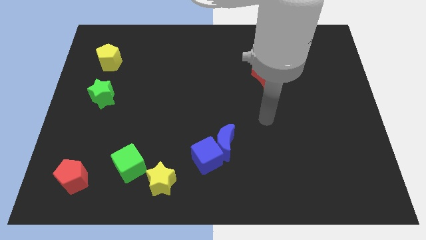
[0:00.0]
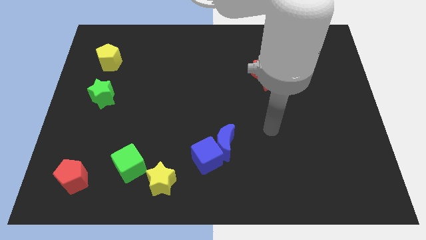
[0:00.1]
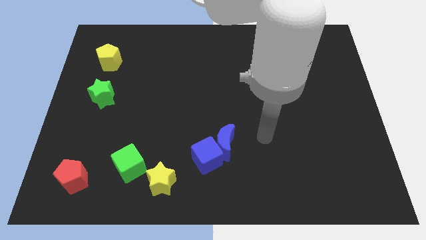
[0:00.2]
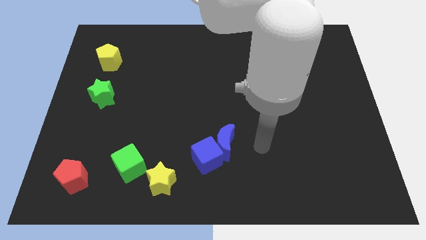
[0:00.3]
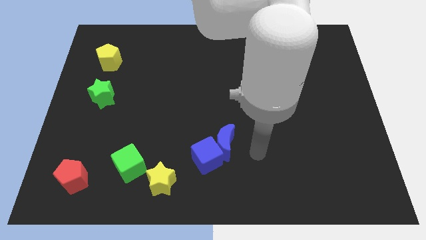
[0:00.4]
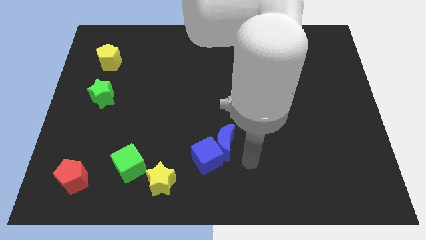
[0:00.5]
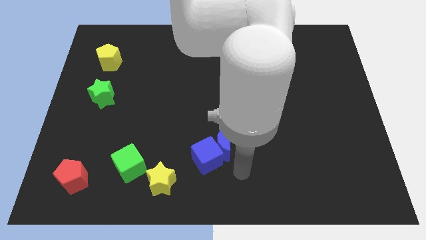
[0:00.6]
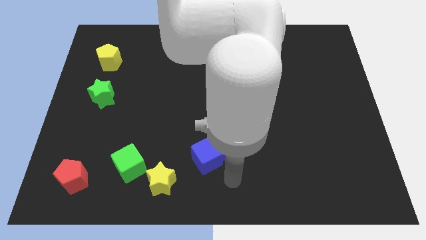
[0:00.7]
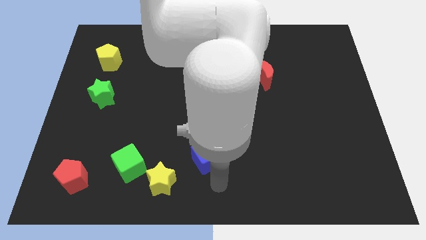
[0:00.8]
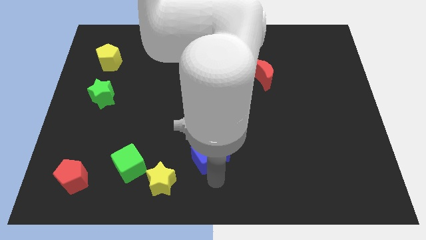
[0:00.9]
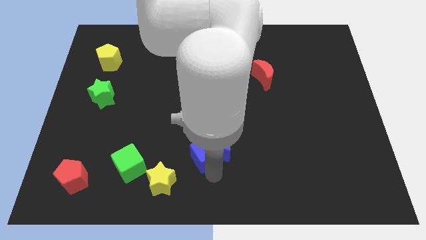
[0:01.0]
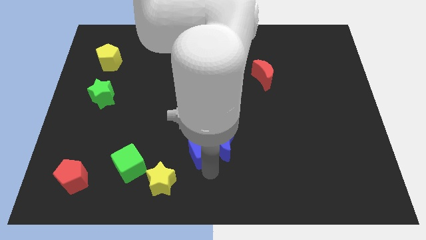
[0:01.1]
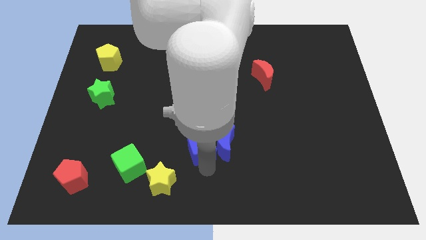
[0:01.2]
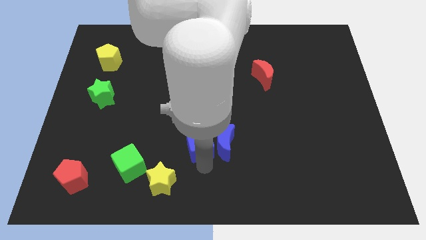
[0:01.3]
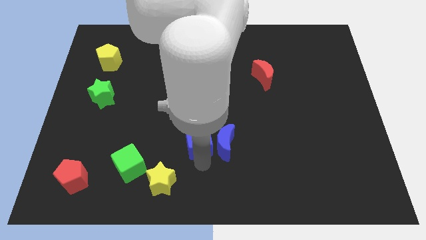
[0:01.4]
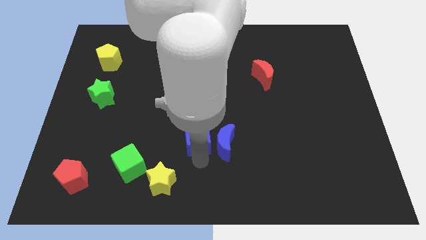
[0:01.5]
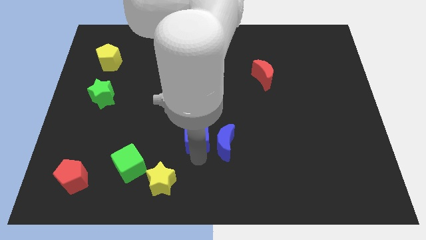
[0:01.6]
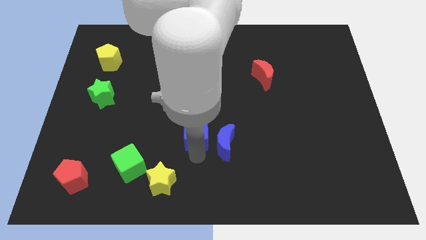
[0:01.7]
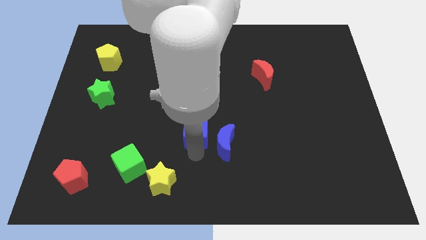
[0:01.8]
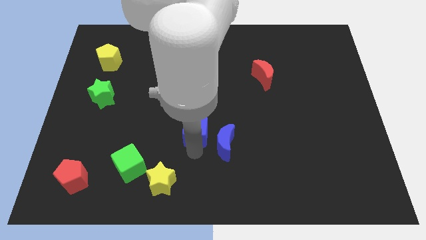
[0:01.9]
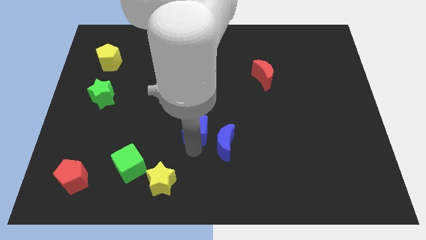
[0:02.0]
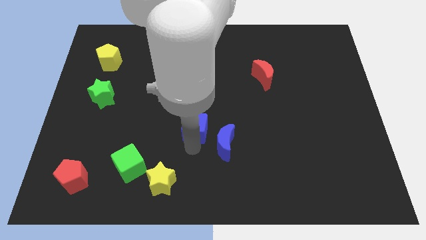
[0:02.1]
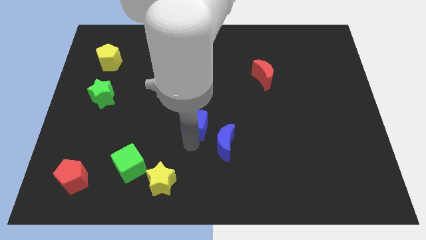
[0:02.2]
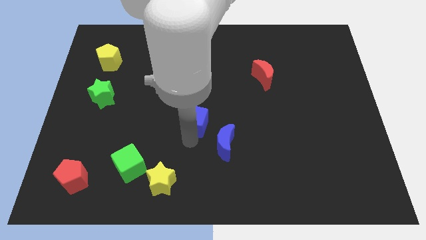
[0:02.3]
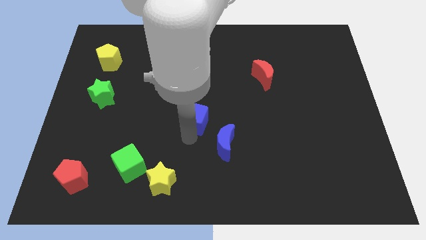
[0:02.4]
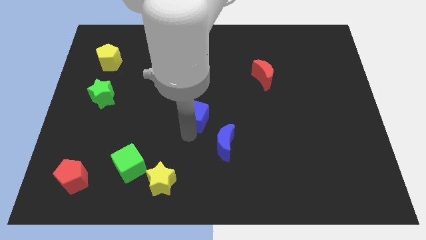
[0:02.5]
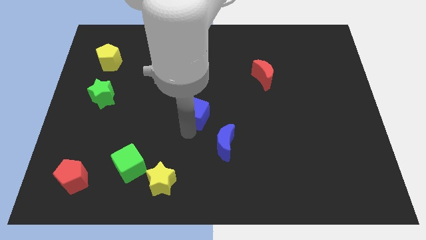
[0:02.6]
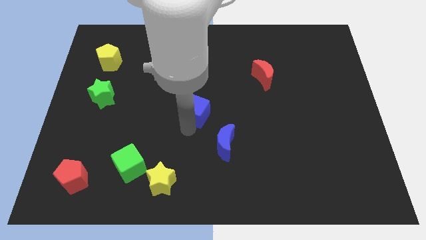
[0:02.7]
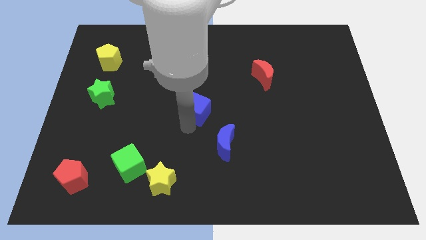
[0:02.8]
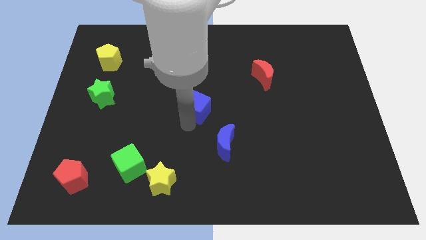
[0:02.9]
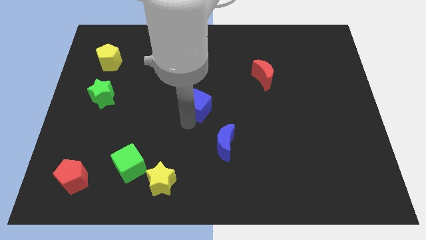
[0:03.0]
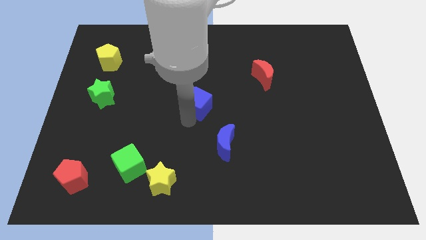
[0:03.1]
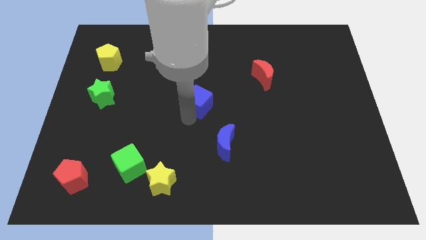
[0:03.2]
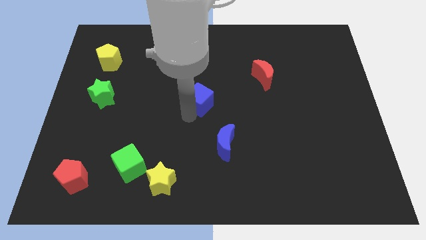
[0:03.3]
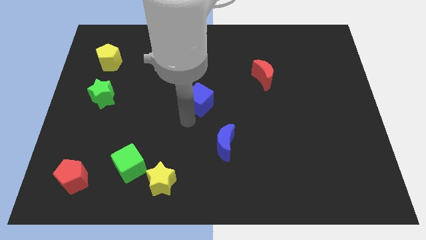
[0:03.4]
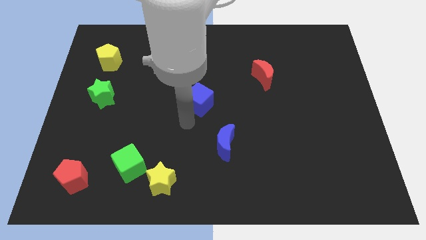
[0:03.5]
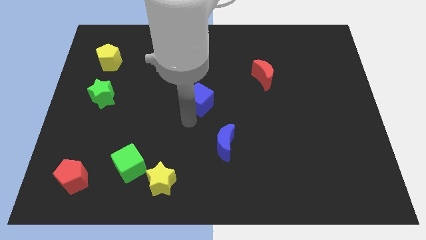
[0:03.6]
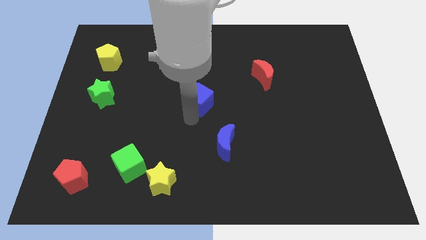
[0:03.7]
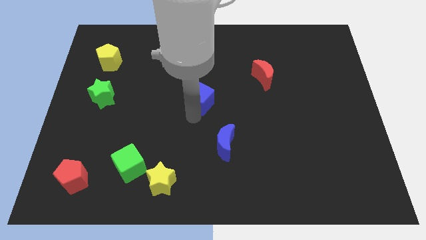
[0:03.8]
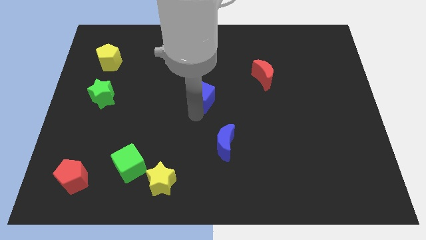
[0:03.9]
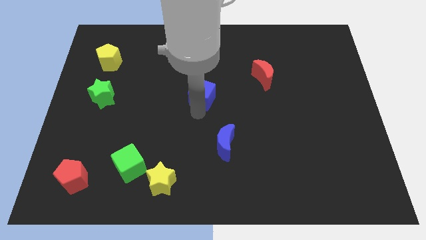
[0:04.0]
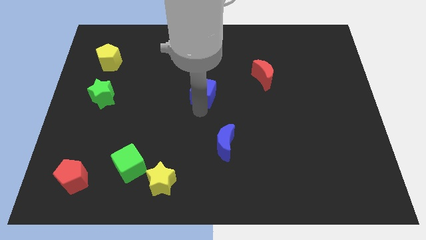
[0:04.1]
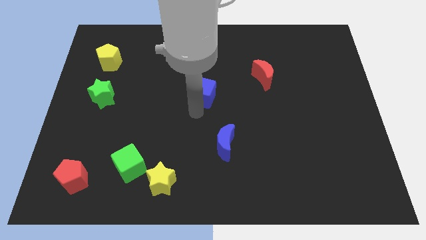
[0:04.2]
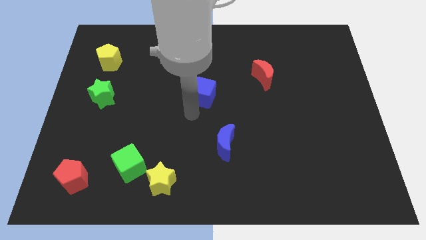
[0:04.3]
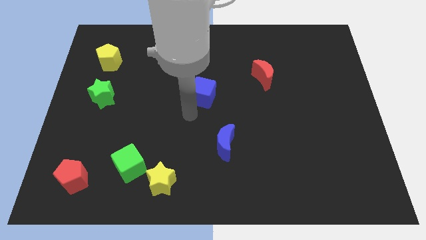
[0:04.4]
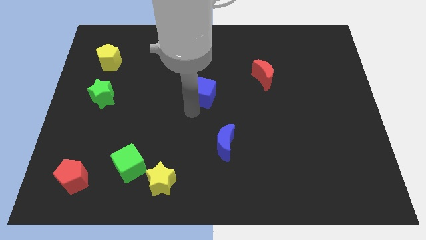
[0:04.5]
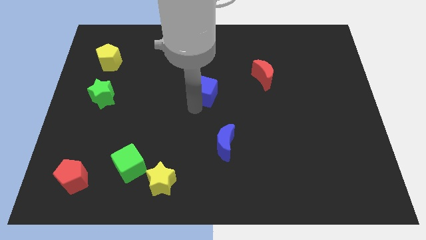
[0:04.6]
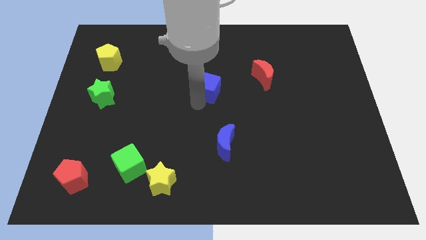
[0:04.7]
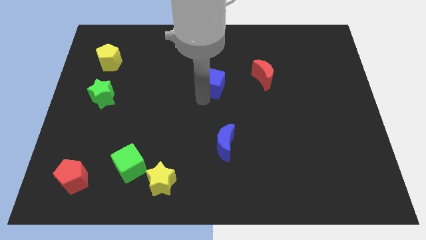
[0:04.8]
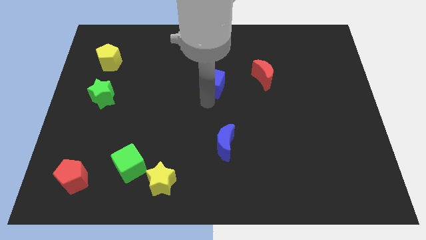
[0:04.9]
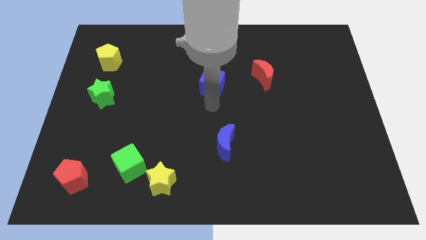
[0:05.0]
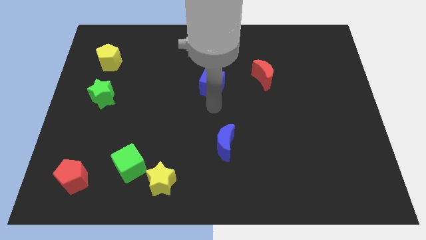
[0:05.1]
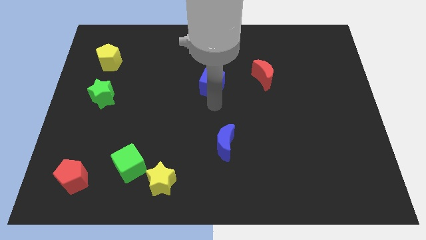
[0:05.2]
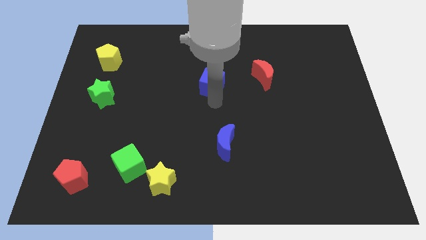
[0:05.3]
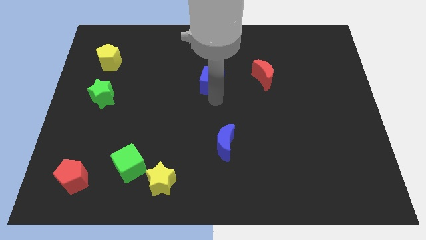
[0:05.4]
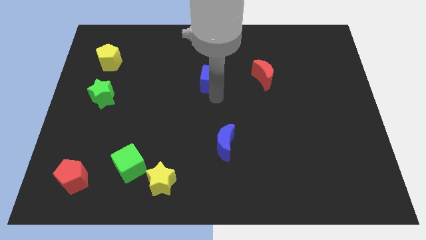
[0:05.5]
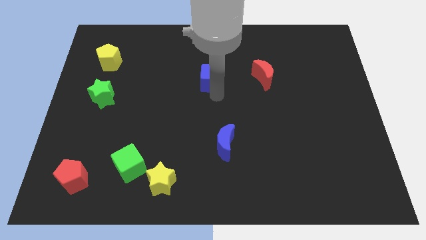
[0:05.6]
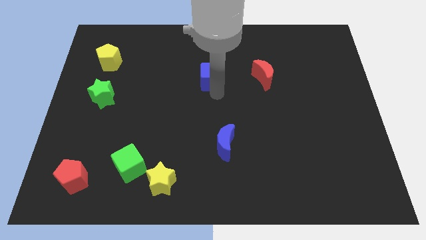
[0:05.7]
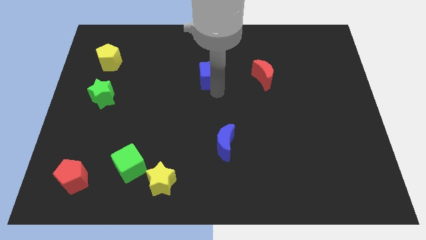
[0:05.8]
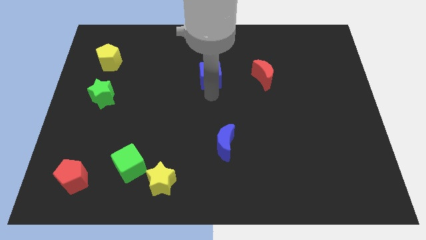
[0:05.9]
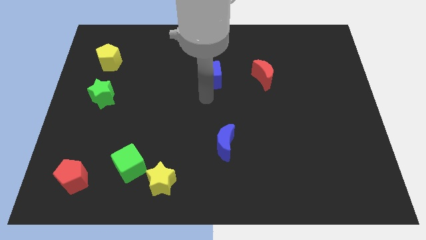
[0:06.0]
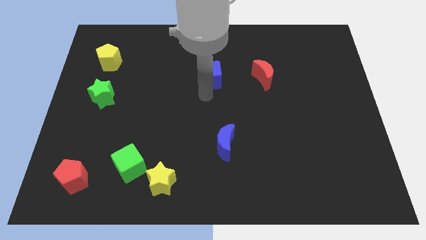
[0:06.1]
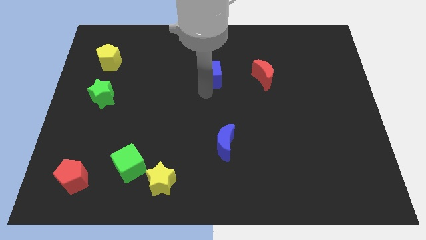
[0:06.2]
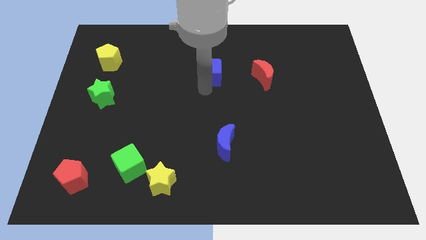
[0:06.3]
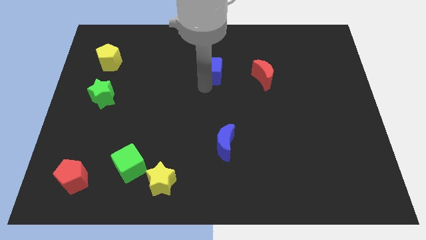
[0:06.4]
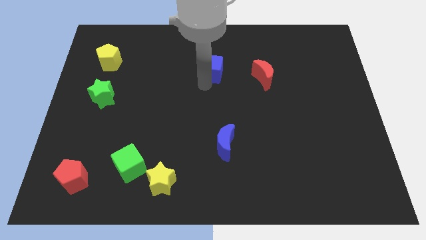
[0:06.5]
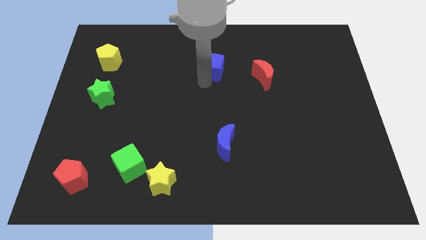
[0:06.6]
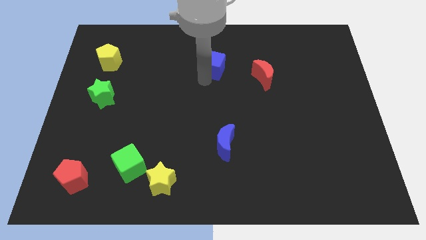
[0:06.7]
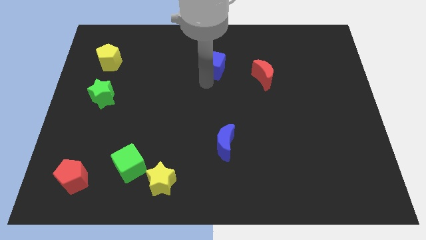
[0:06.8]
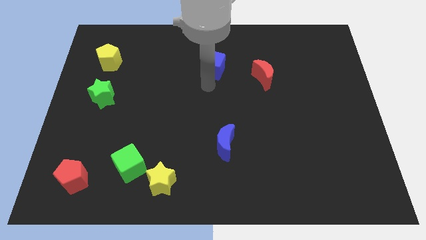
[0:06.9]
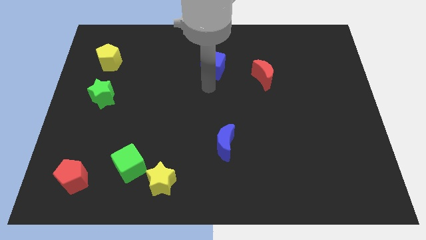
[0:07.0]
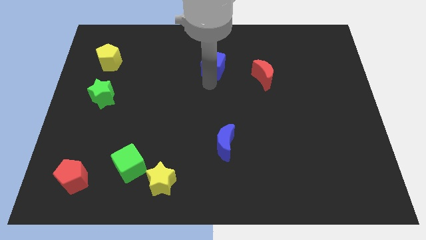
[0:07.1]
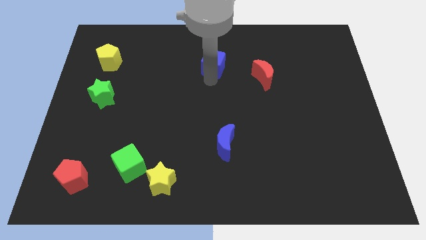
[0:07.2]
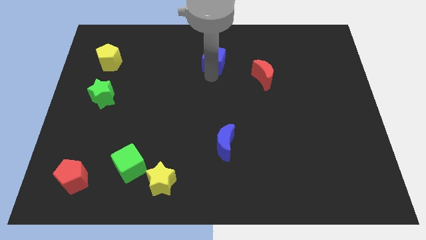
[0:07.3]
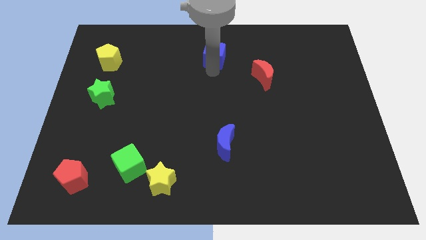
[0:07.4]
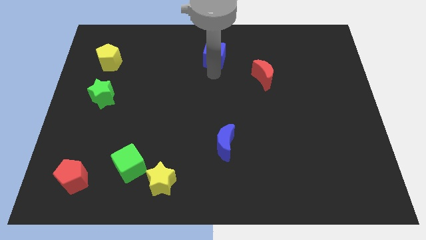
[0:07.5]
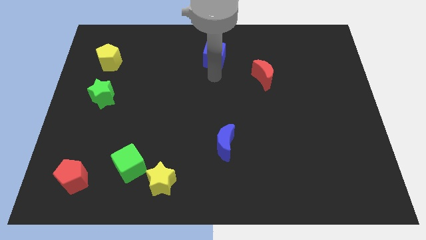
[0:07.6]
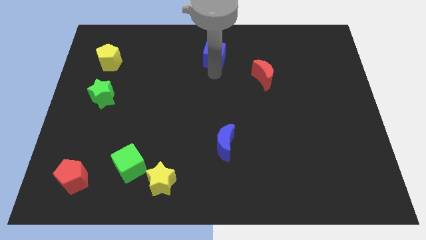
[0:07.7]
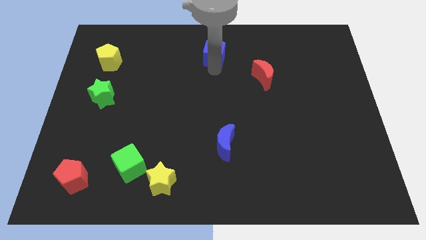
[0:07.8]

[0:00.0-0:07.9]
move the blue cube to the top side
